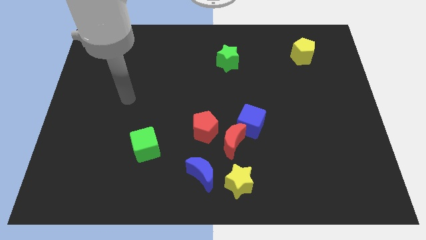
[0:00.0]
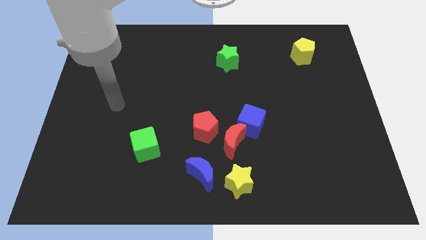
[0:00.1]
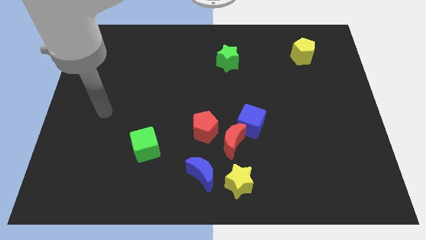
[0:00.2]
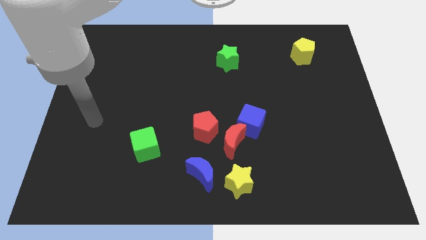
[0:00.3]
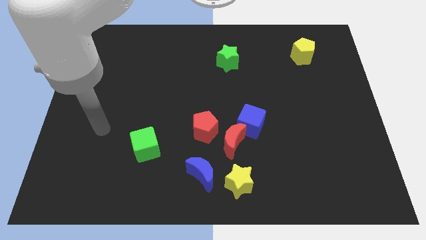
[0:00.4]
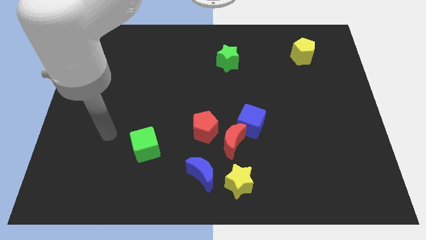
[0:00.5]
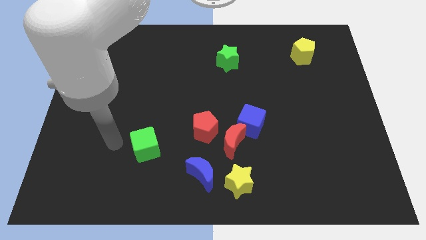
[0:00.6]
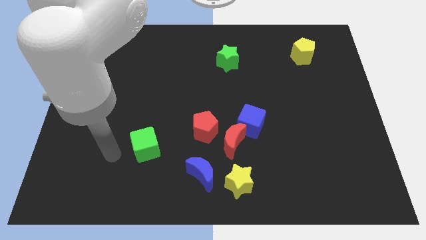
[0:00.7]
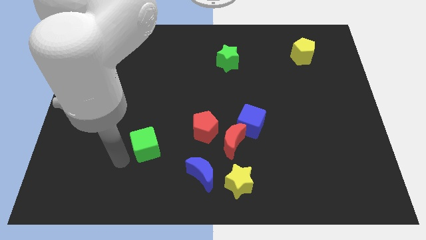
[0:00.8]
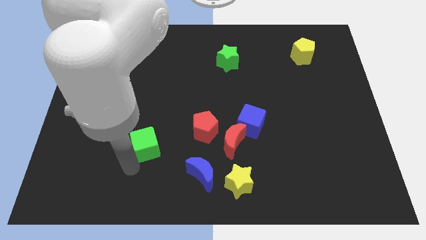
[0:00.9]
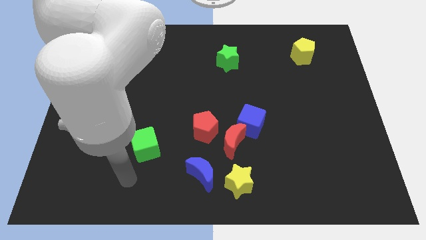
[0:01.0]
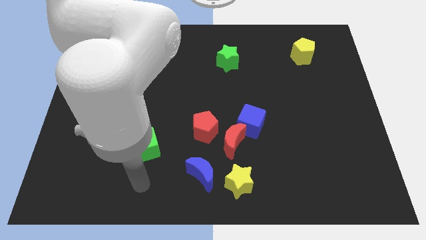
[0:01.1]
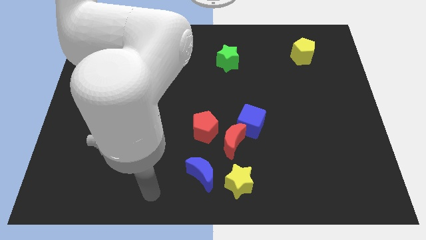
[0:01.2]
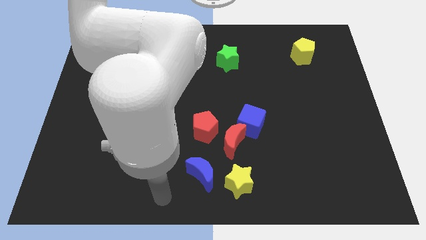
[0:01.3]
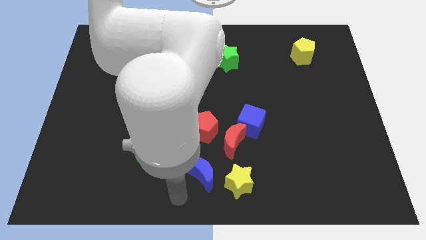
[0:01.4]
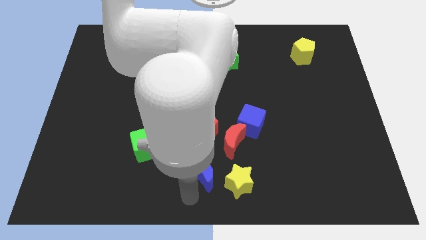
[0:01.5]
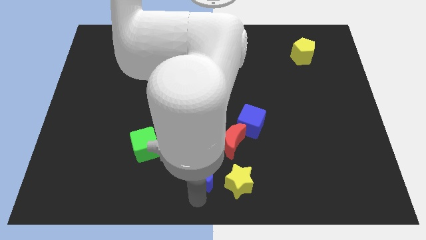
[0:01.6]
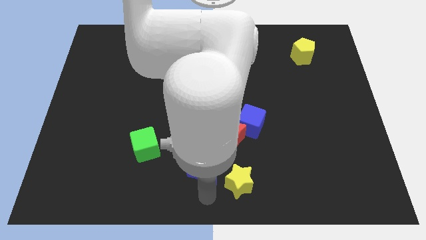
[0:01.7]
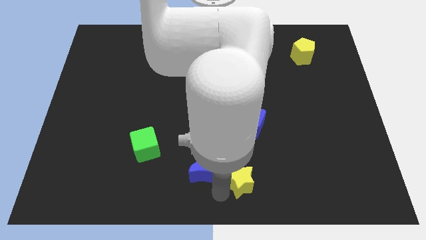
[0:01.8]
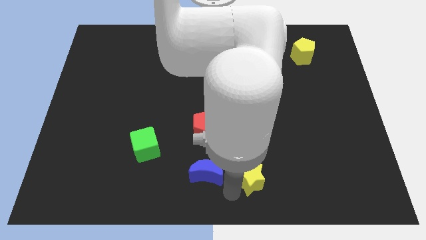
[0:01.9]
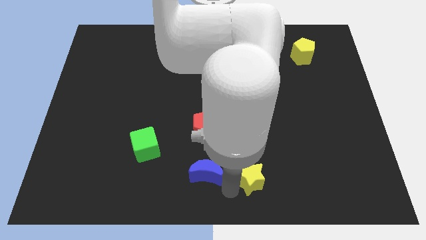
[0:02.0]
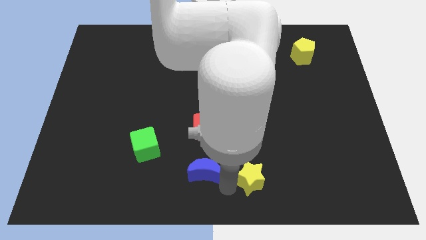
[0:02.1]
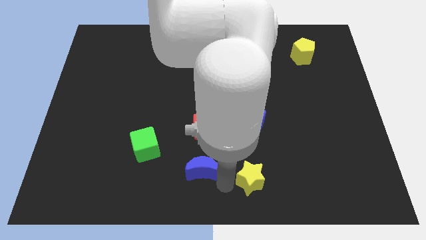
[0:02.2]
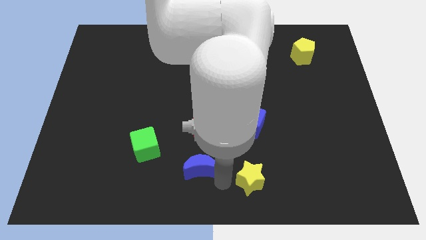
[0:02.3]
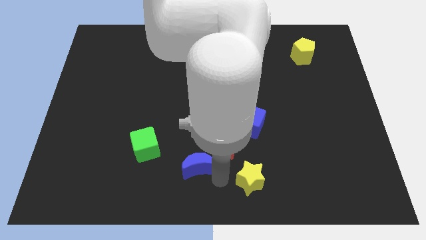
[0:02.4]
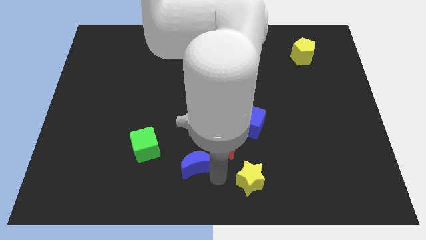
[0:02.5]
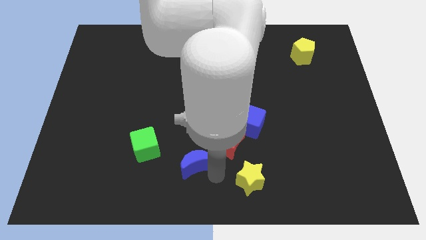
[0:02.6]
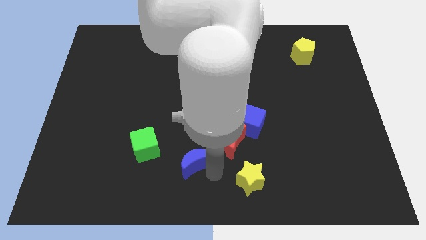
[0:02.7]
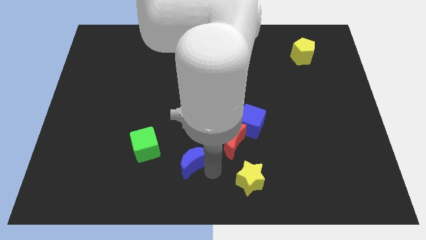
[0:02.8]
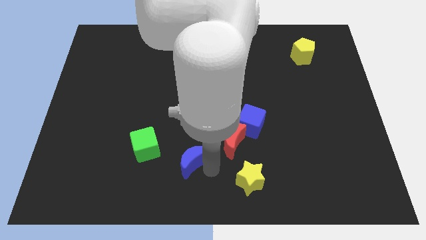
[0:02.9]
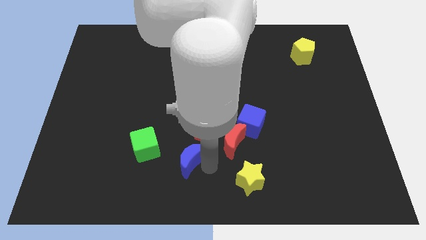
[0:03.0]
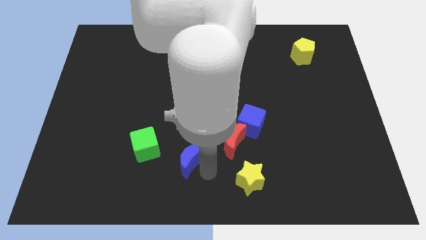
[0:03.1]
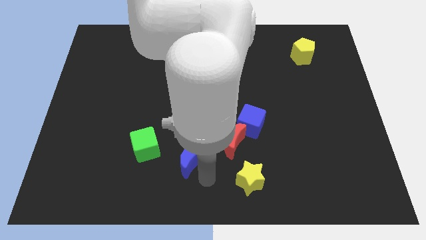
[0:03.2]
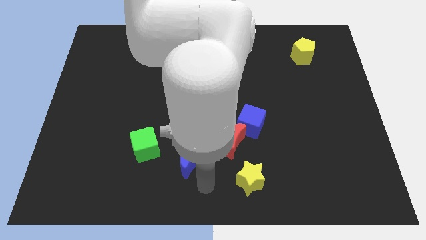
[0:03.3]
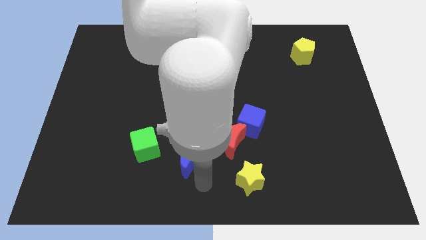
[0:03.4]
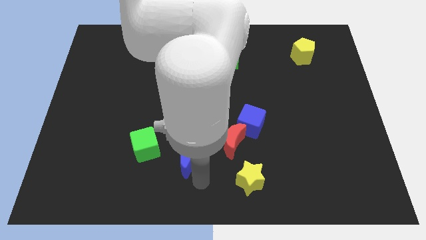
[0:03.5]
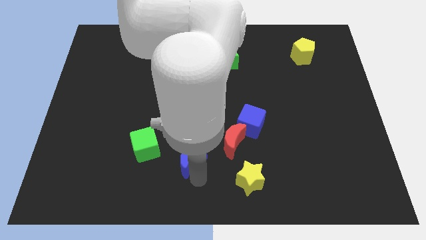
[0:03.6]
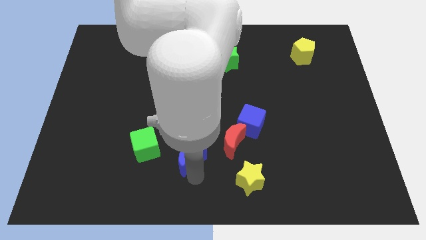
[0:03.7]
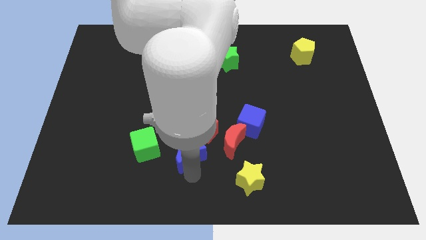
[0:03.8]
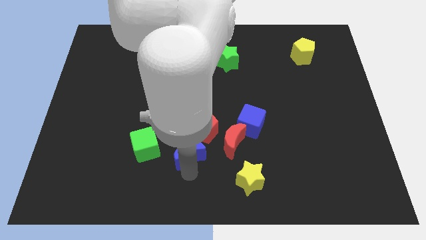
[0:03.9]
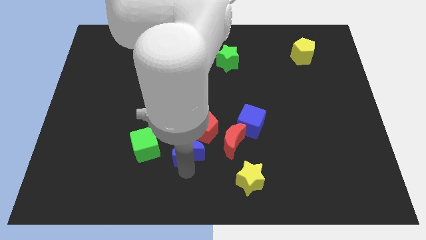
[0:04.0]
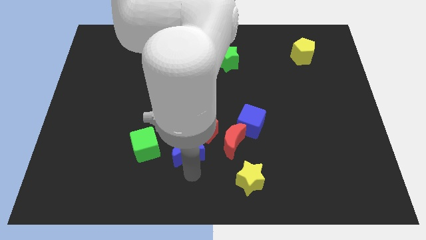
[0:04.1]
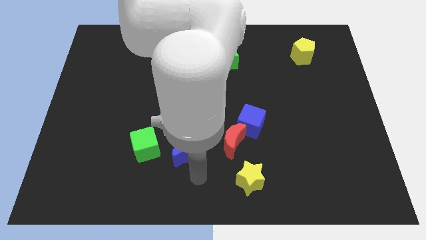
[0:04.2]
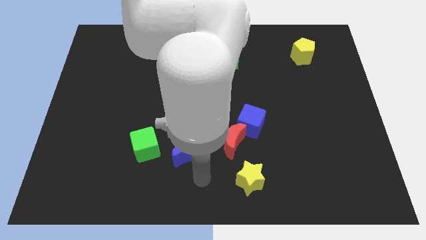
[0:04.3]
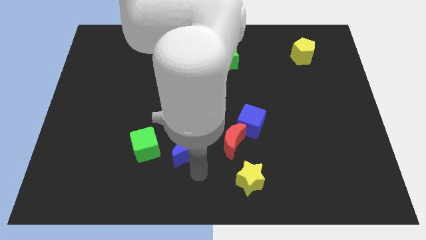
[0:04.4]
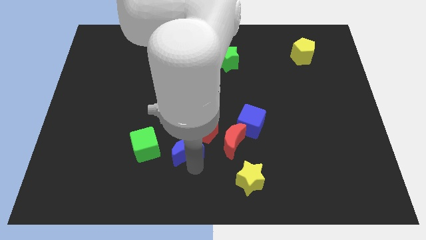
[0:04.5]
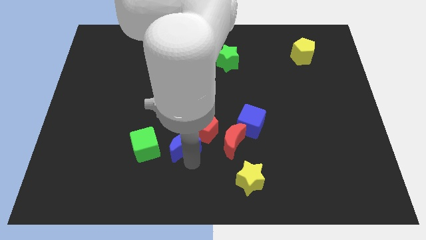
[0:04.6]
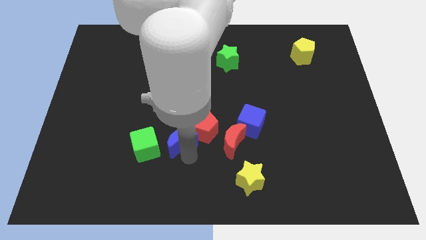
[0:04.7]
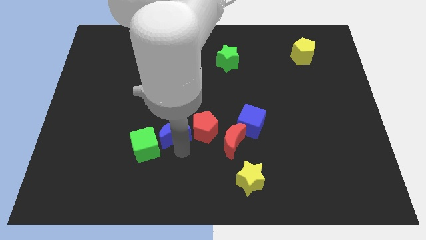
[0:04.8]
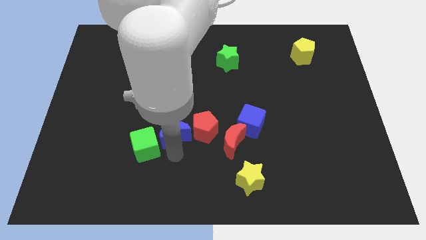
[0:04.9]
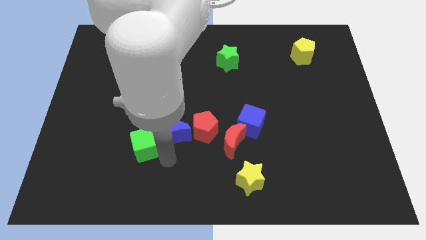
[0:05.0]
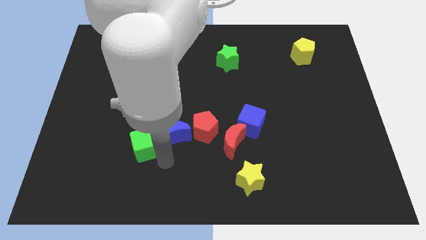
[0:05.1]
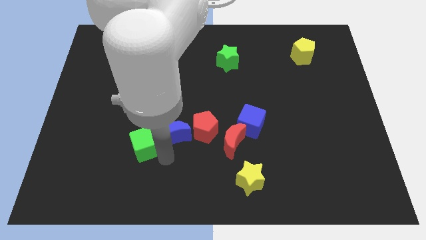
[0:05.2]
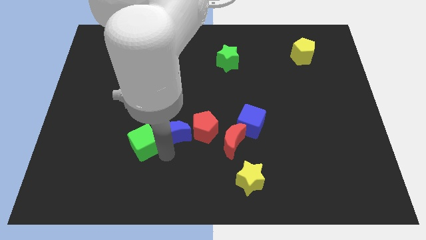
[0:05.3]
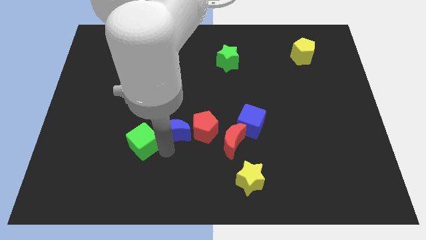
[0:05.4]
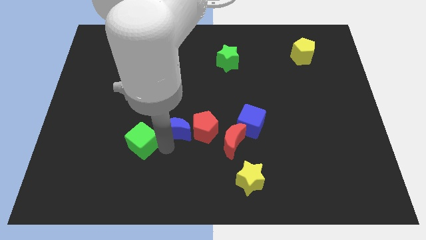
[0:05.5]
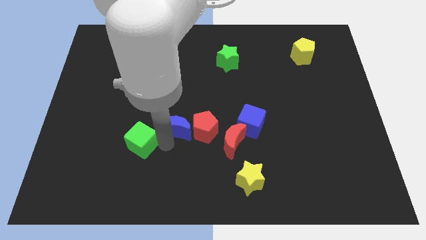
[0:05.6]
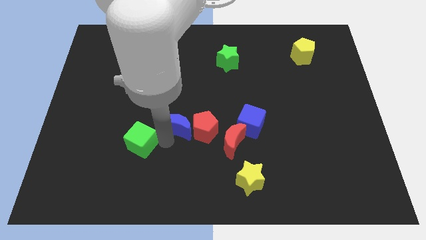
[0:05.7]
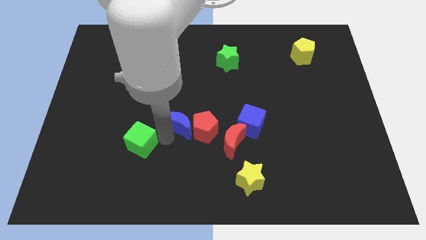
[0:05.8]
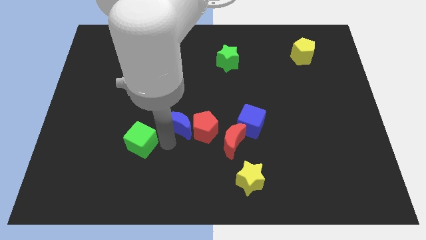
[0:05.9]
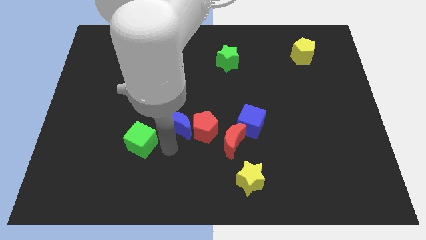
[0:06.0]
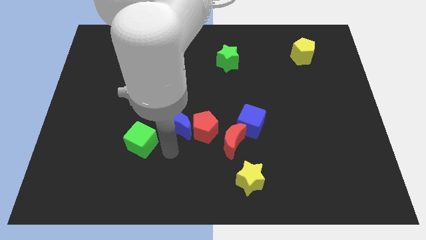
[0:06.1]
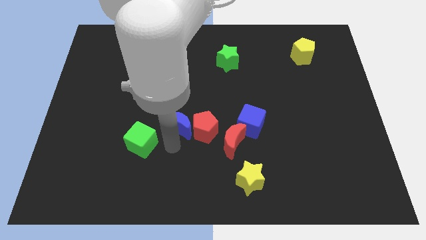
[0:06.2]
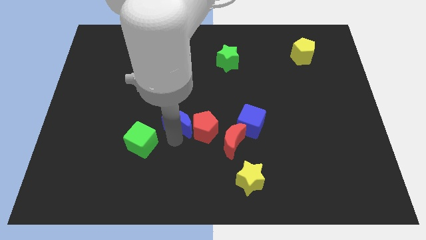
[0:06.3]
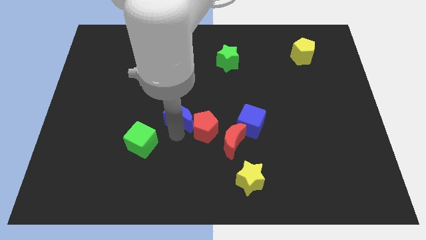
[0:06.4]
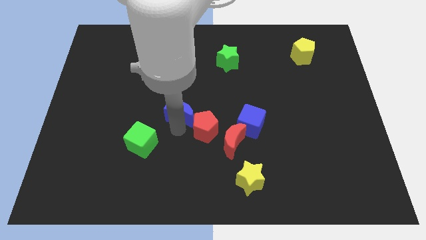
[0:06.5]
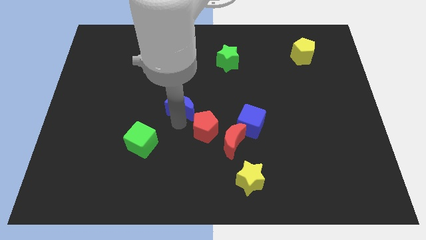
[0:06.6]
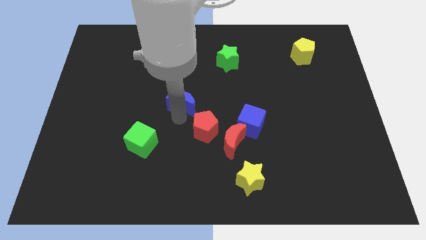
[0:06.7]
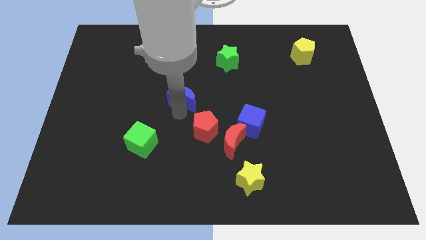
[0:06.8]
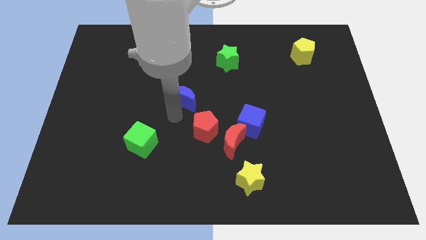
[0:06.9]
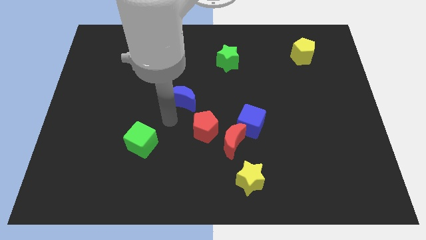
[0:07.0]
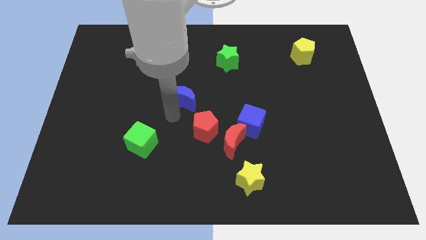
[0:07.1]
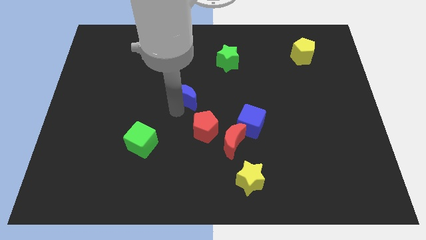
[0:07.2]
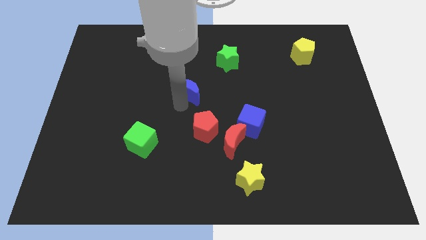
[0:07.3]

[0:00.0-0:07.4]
slide the blue moon upwards

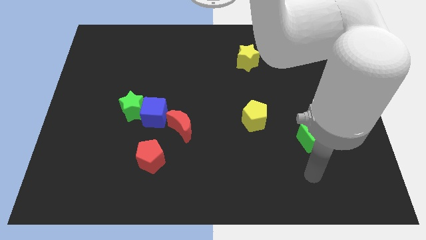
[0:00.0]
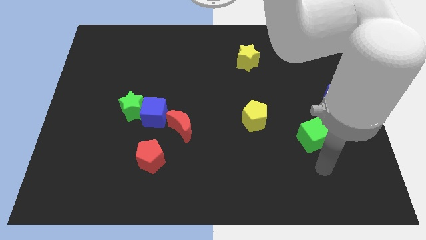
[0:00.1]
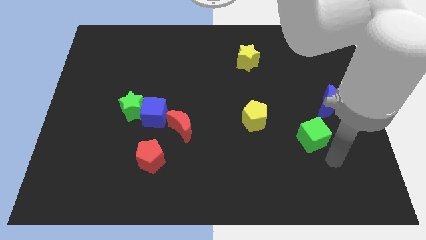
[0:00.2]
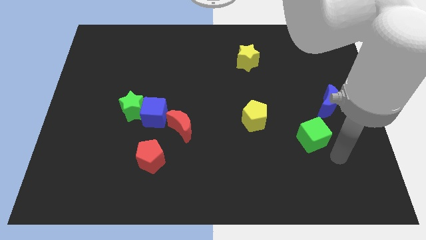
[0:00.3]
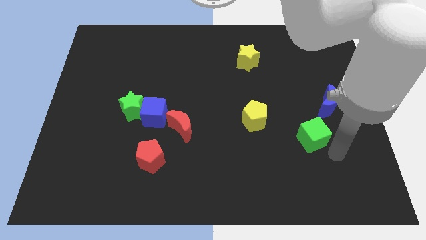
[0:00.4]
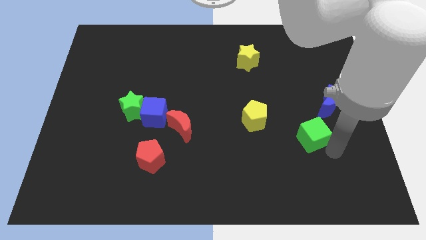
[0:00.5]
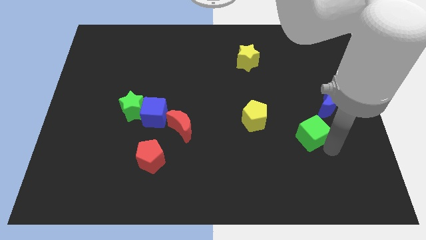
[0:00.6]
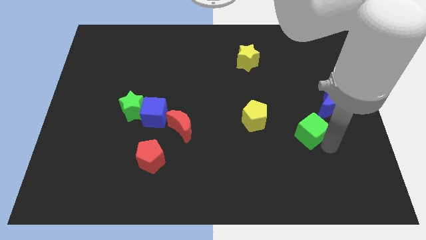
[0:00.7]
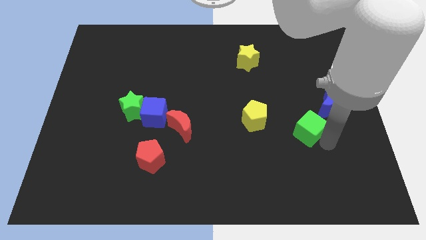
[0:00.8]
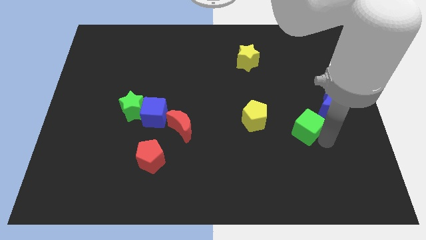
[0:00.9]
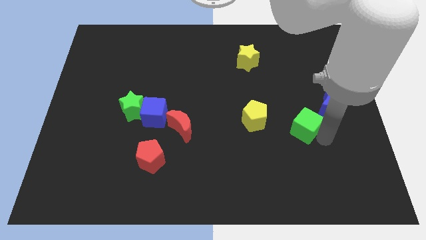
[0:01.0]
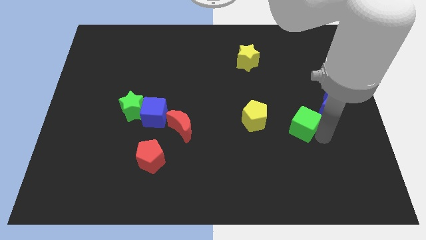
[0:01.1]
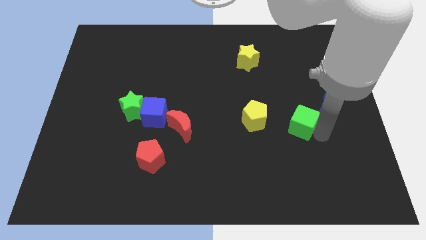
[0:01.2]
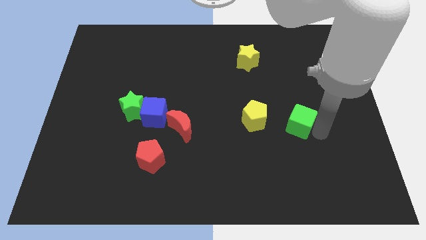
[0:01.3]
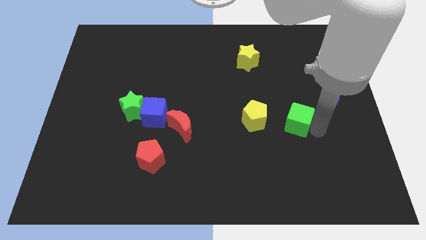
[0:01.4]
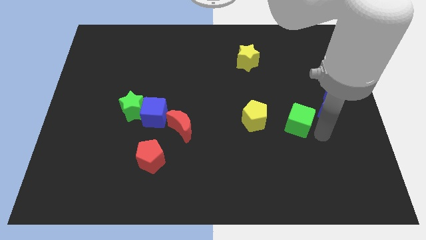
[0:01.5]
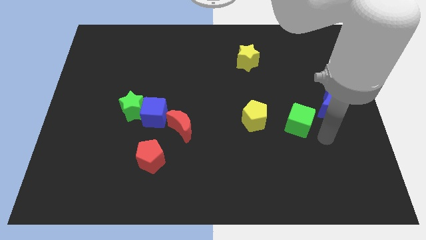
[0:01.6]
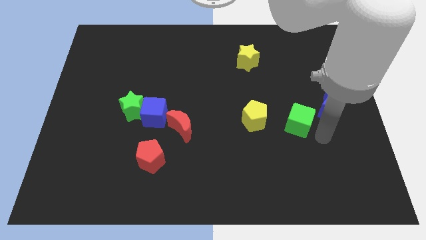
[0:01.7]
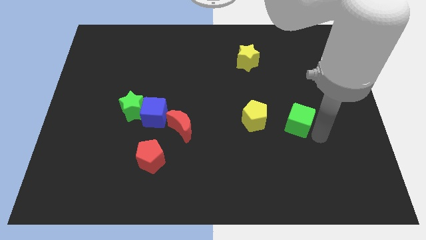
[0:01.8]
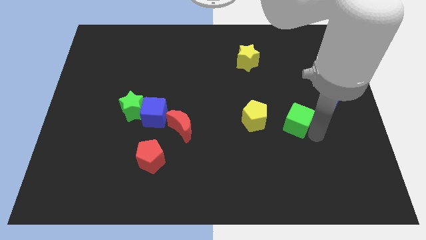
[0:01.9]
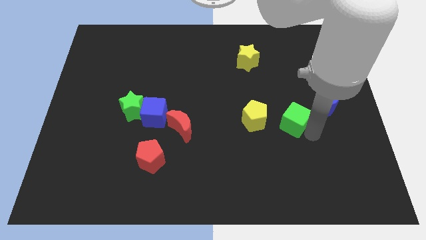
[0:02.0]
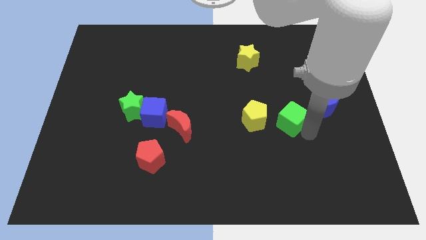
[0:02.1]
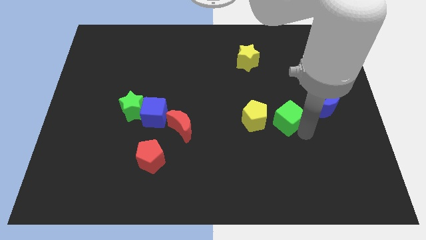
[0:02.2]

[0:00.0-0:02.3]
slide the green cube a little bit diagonally upwards and left
